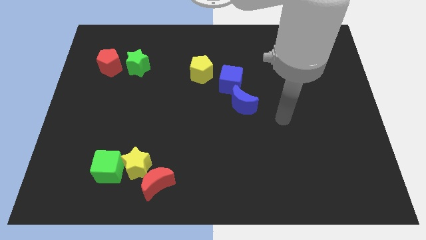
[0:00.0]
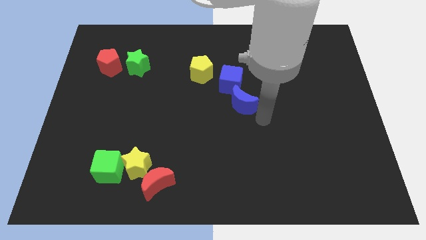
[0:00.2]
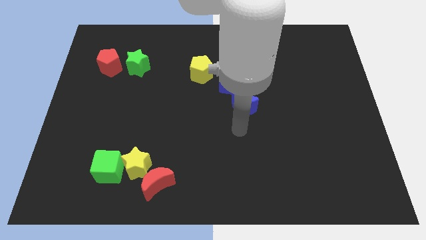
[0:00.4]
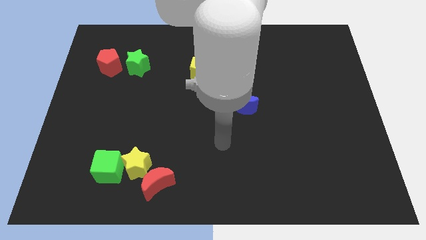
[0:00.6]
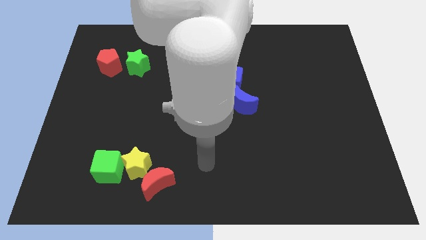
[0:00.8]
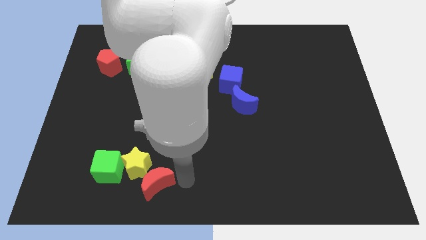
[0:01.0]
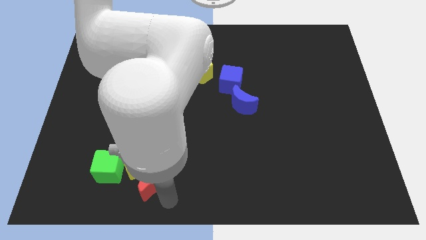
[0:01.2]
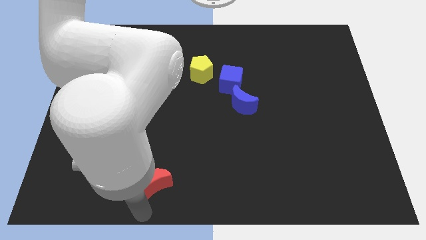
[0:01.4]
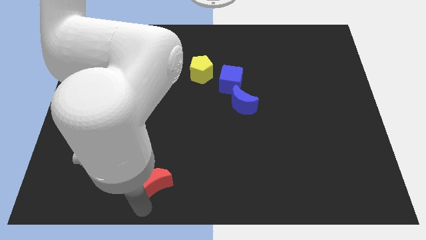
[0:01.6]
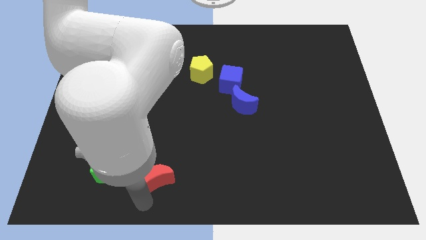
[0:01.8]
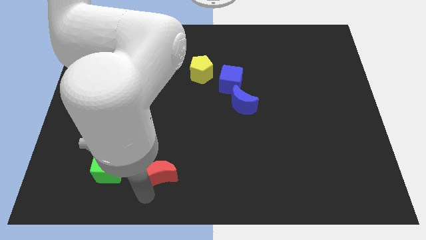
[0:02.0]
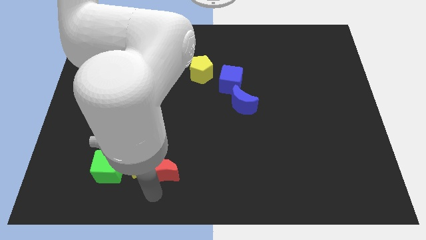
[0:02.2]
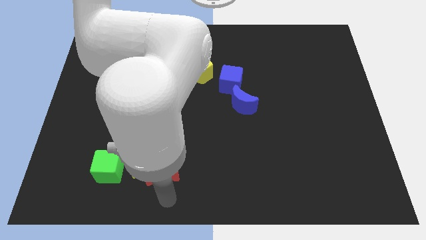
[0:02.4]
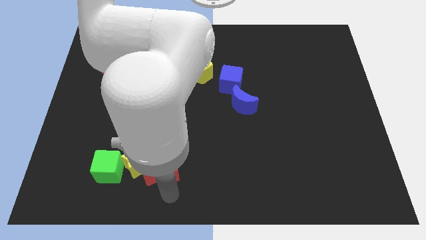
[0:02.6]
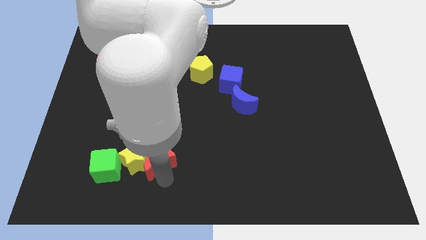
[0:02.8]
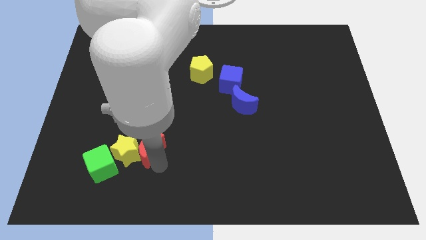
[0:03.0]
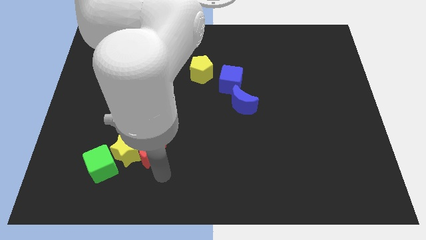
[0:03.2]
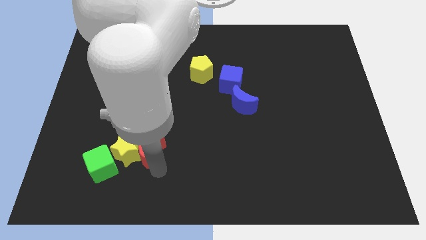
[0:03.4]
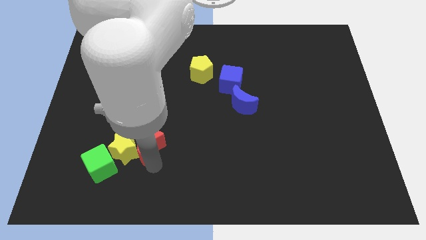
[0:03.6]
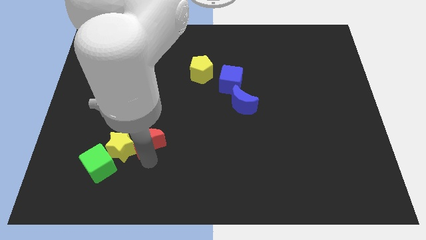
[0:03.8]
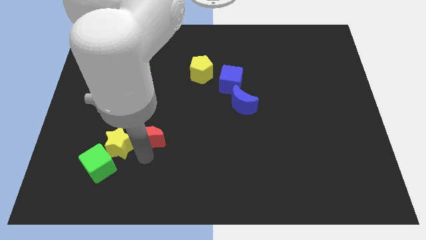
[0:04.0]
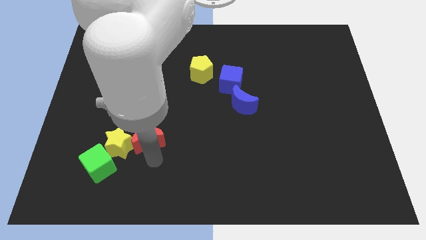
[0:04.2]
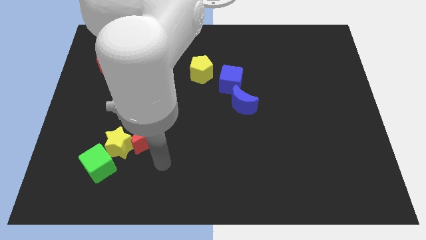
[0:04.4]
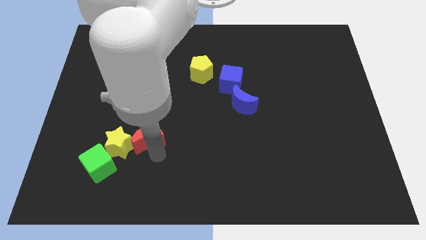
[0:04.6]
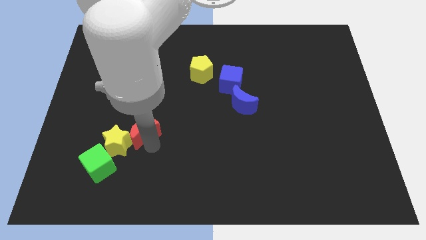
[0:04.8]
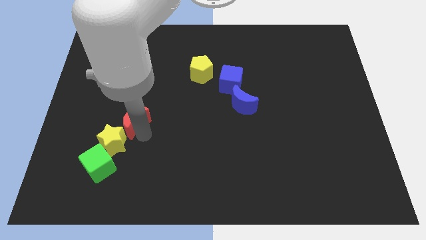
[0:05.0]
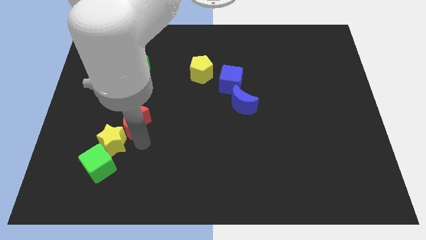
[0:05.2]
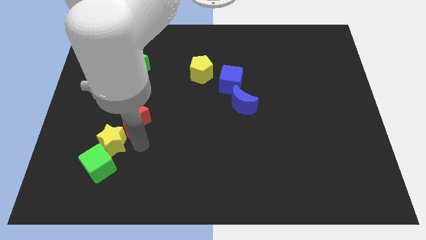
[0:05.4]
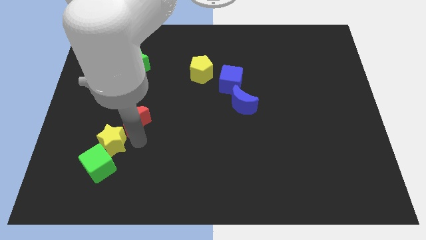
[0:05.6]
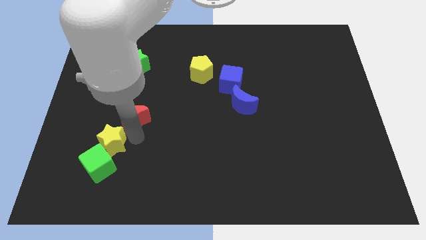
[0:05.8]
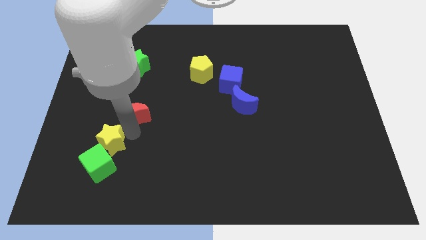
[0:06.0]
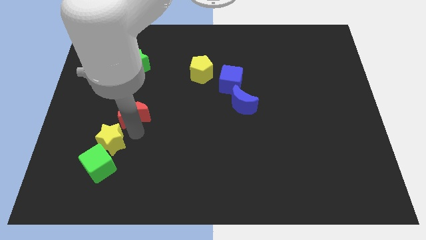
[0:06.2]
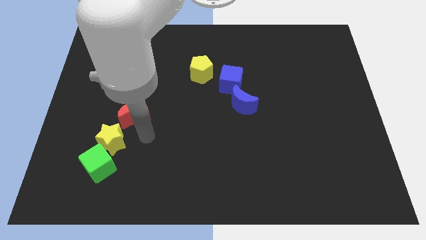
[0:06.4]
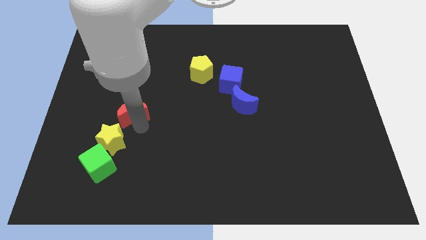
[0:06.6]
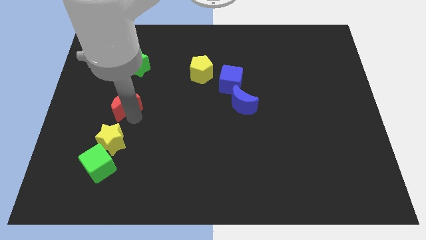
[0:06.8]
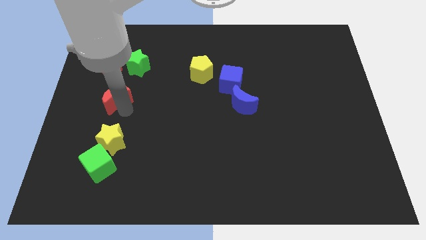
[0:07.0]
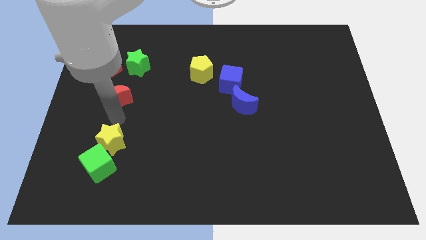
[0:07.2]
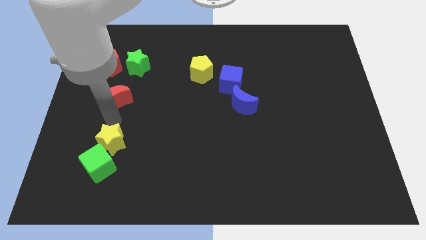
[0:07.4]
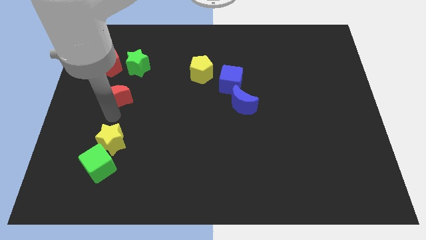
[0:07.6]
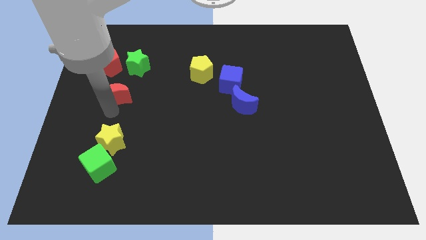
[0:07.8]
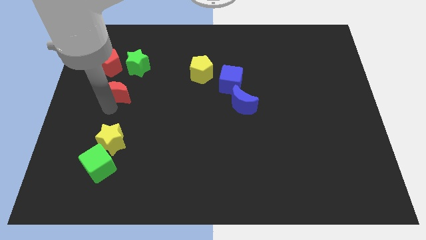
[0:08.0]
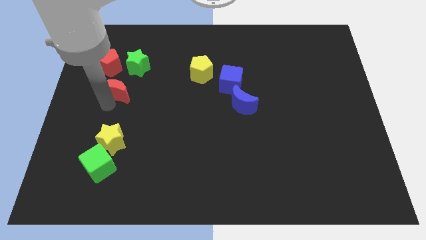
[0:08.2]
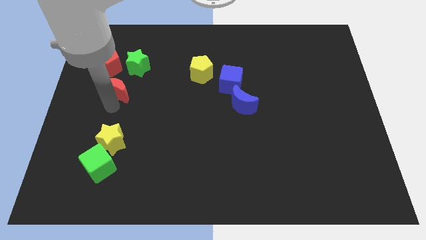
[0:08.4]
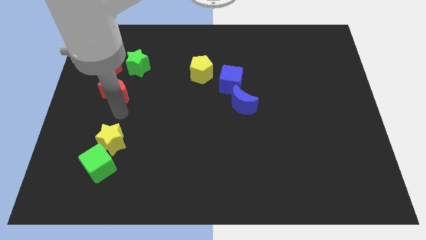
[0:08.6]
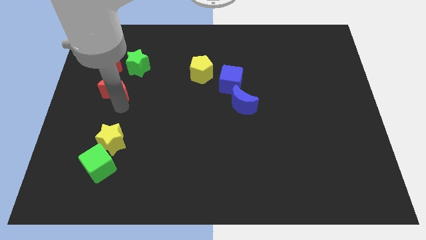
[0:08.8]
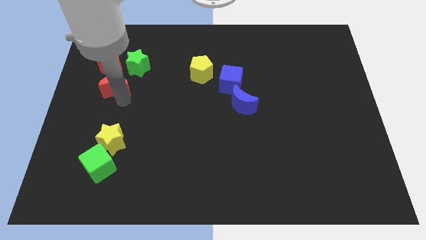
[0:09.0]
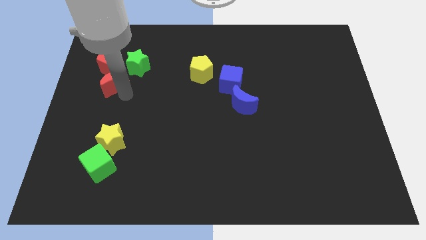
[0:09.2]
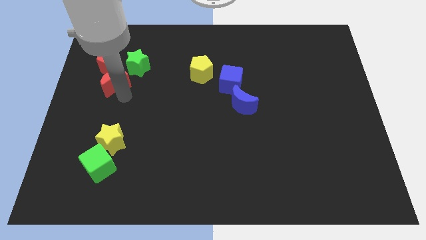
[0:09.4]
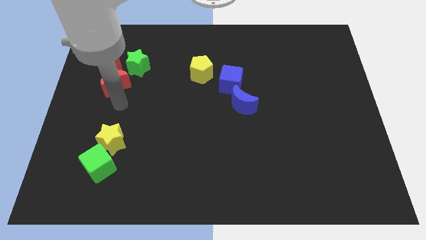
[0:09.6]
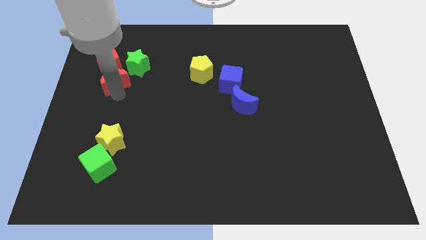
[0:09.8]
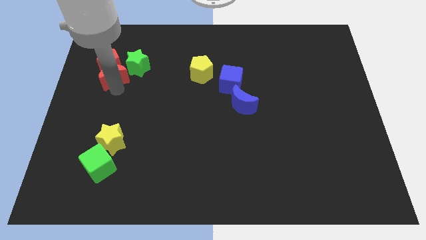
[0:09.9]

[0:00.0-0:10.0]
slide the red moon to the red pentagon

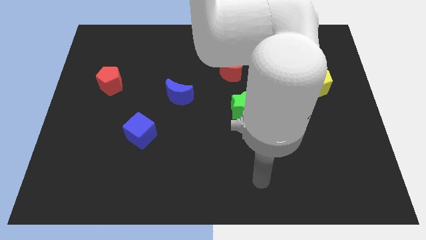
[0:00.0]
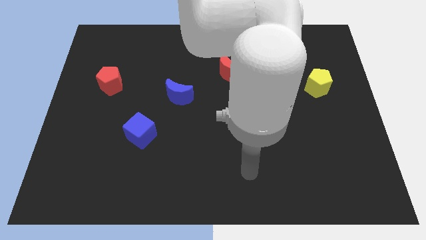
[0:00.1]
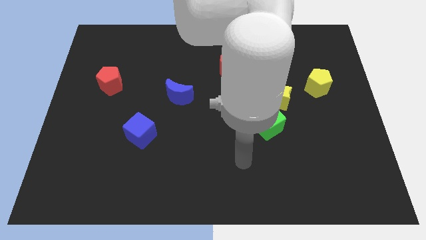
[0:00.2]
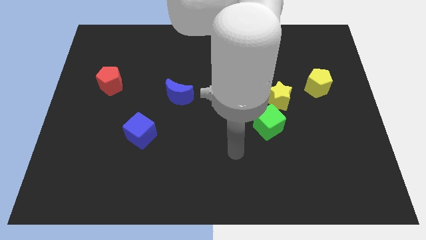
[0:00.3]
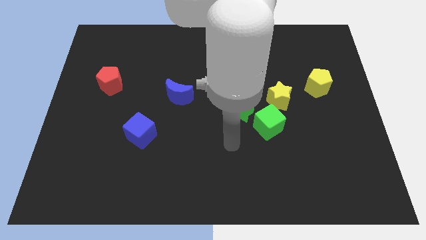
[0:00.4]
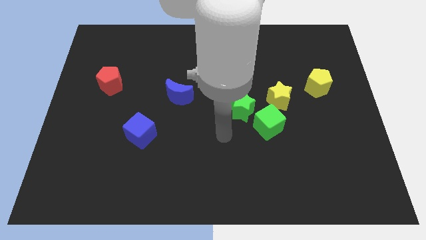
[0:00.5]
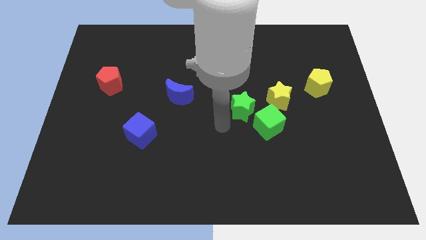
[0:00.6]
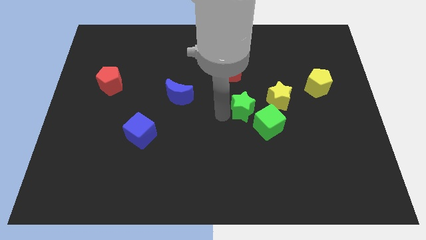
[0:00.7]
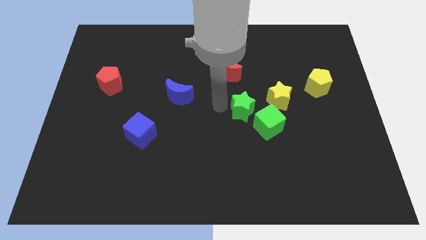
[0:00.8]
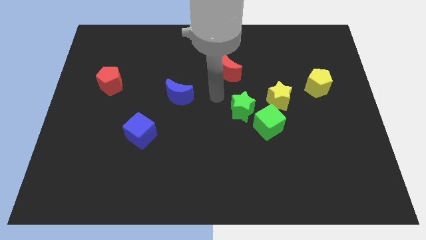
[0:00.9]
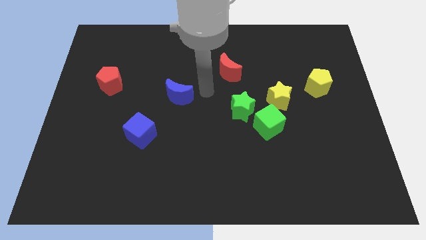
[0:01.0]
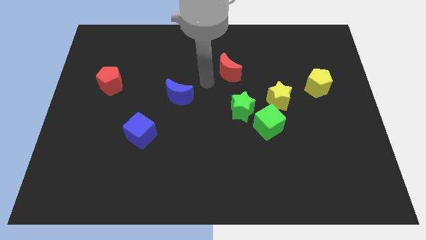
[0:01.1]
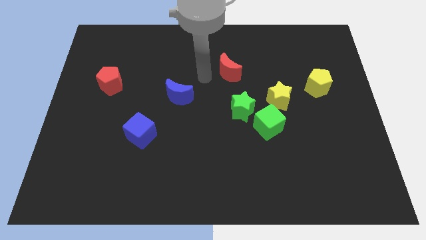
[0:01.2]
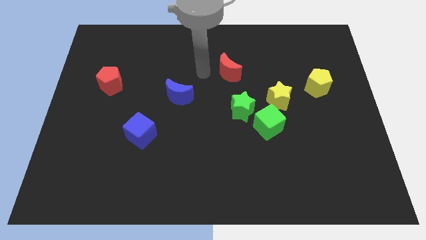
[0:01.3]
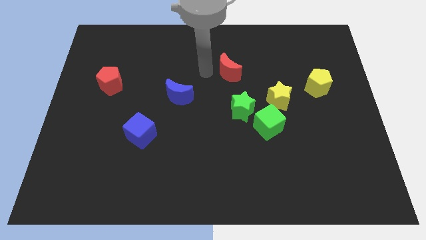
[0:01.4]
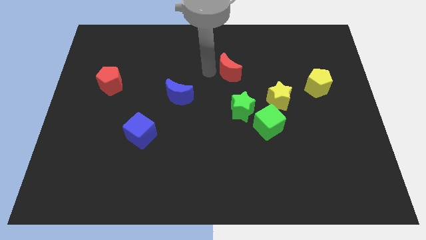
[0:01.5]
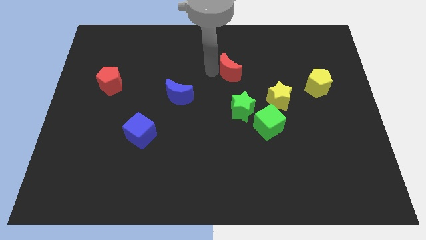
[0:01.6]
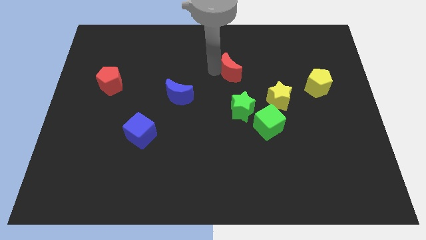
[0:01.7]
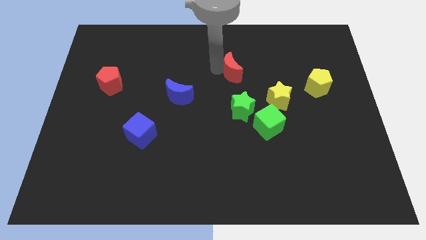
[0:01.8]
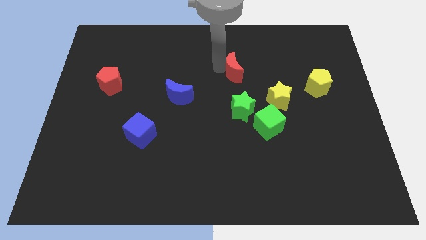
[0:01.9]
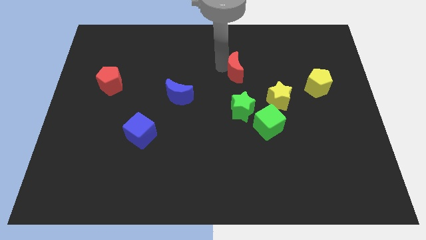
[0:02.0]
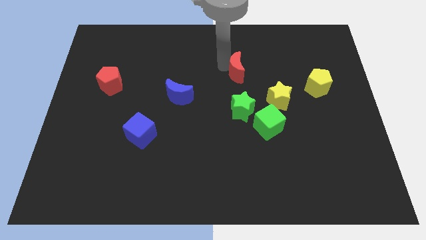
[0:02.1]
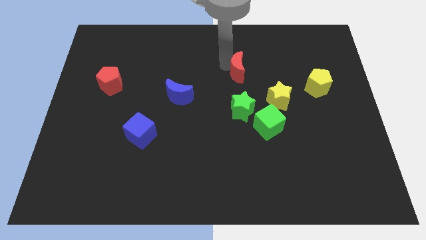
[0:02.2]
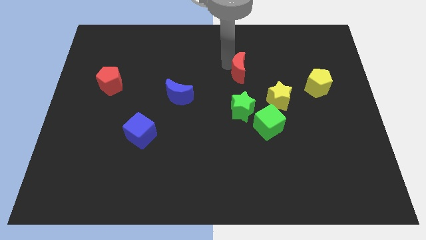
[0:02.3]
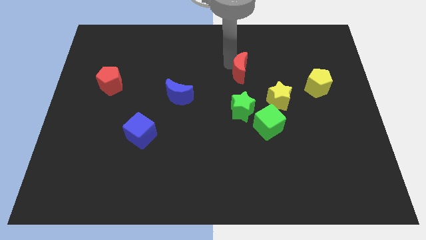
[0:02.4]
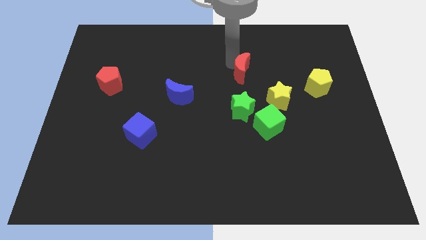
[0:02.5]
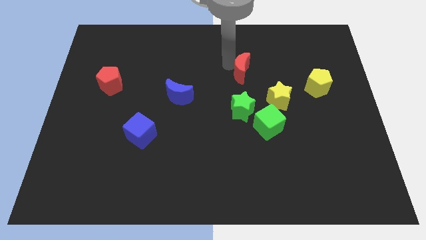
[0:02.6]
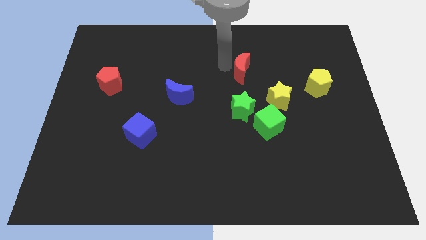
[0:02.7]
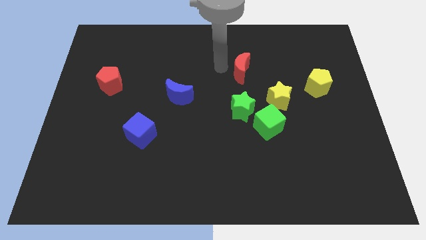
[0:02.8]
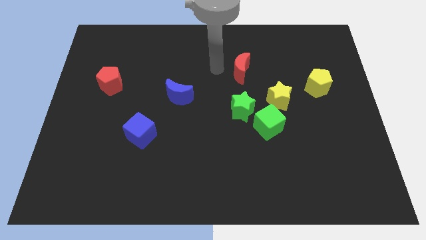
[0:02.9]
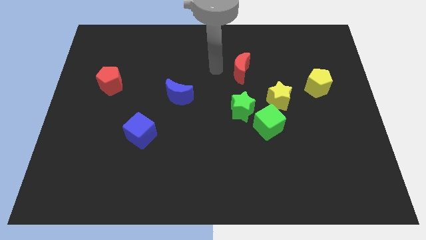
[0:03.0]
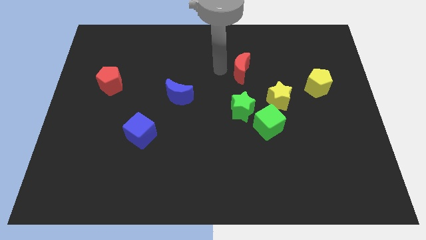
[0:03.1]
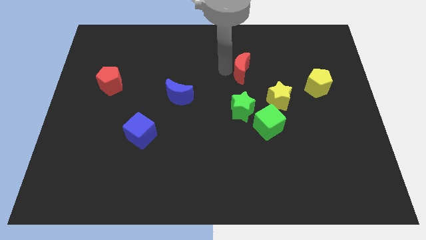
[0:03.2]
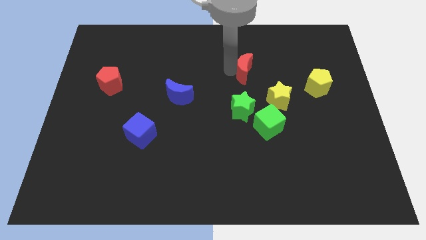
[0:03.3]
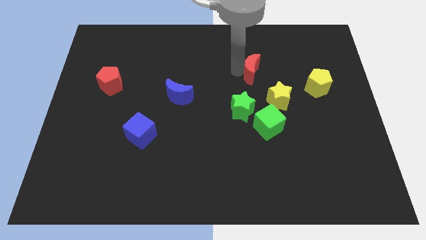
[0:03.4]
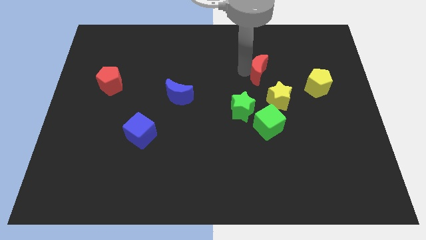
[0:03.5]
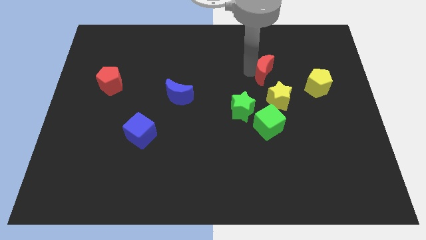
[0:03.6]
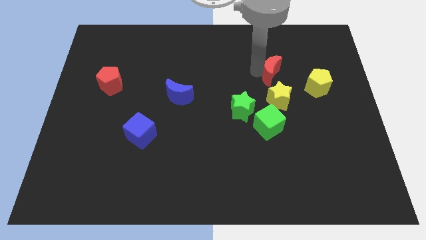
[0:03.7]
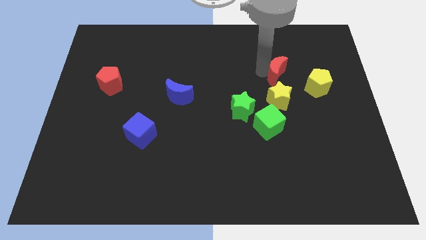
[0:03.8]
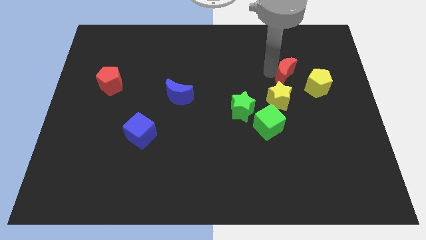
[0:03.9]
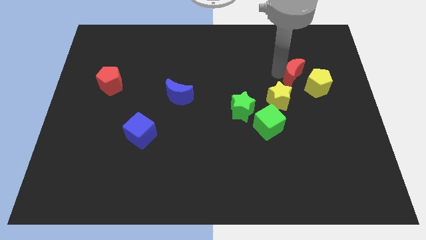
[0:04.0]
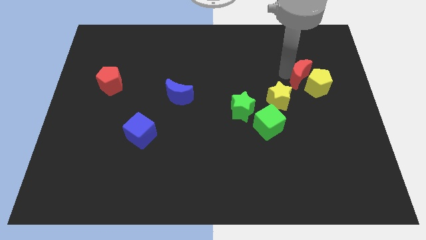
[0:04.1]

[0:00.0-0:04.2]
push the red moon next to the yellow pentagon
